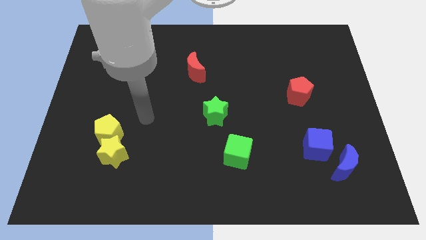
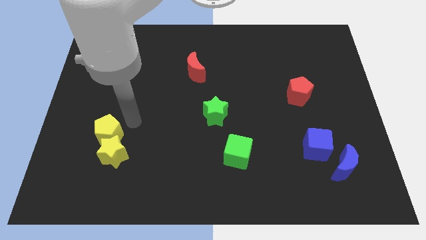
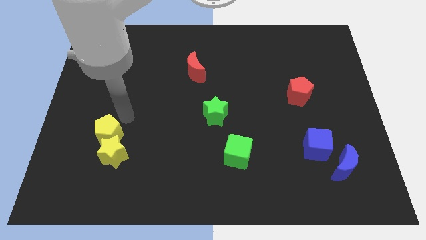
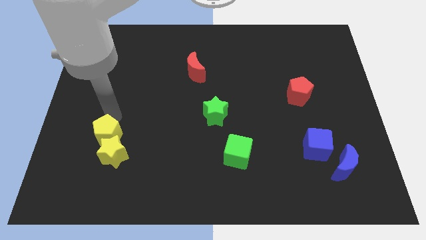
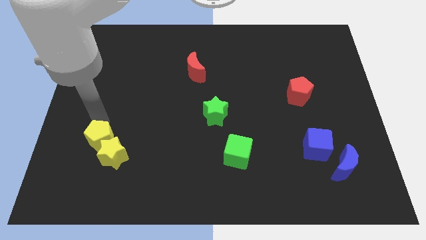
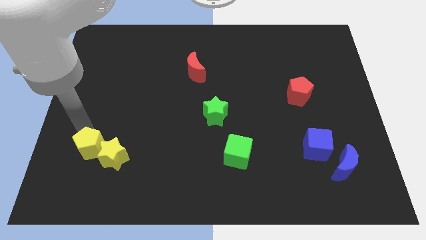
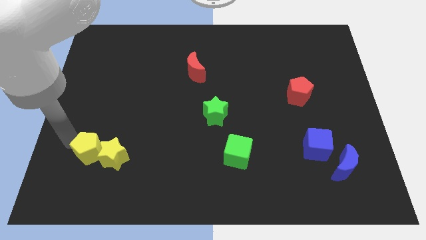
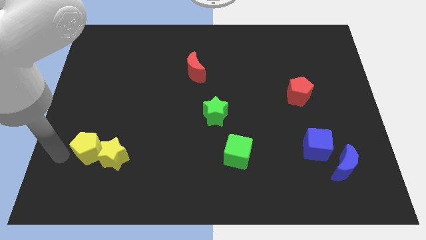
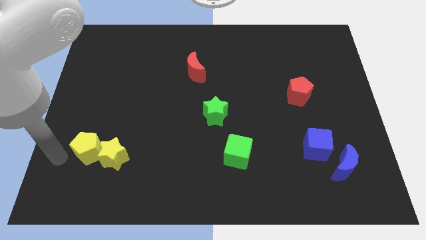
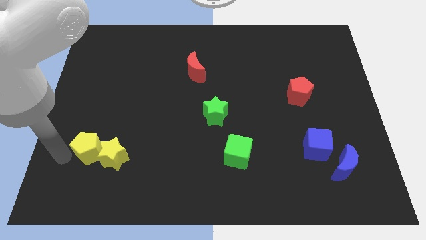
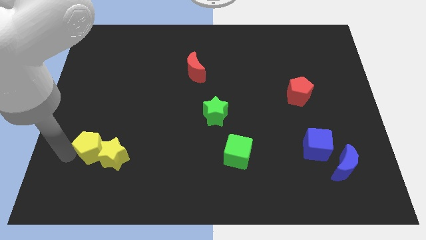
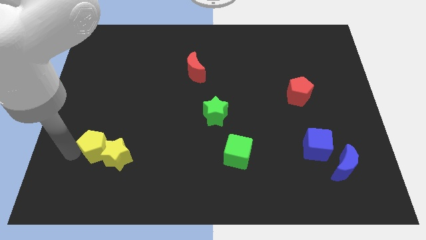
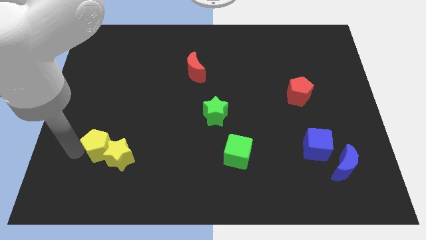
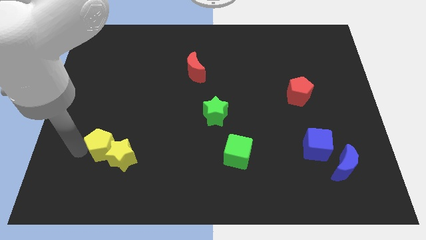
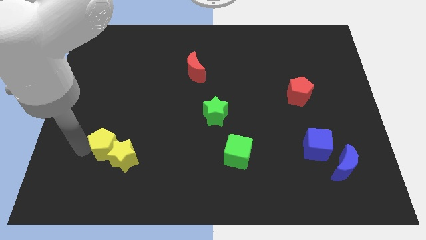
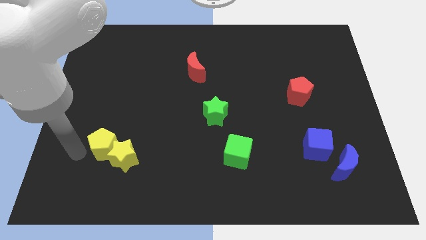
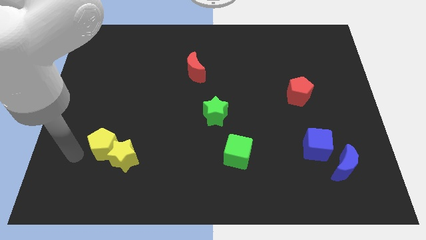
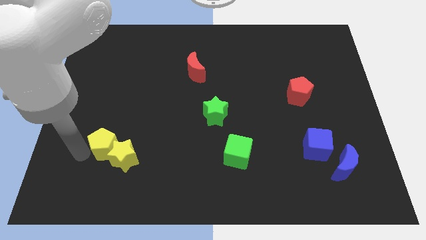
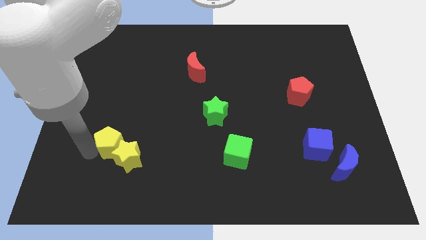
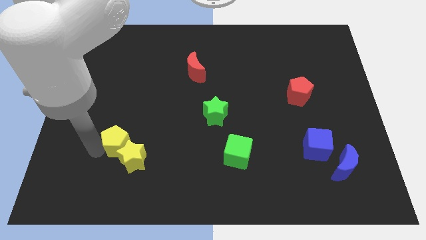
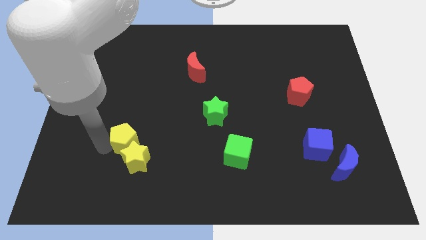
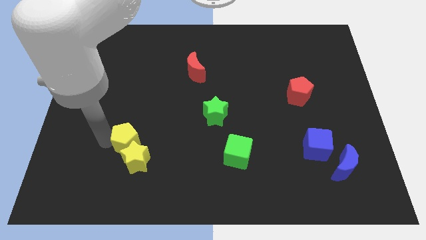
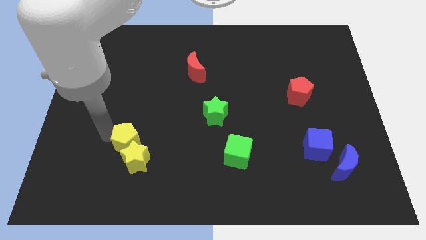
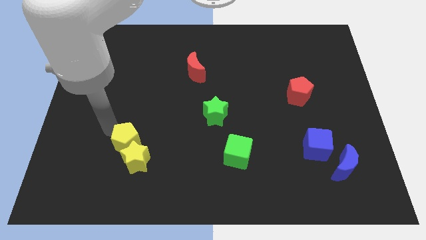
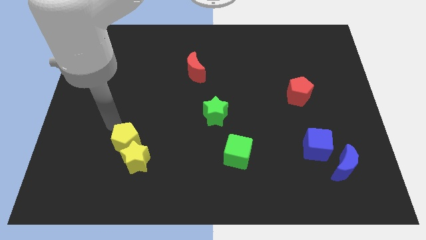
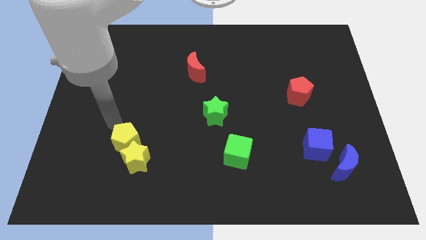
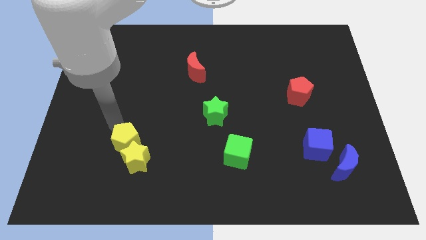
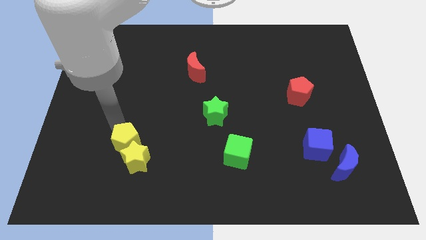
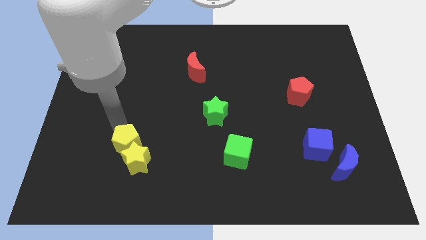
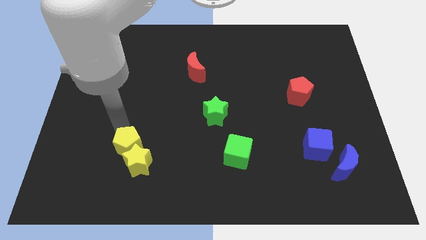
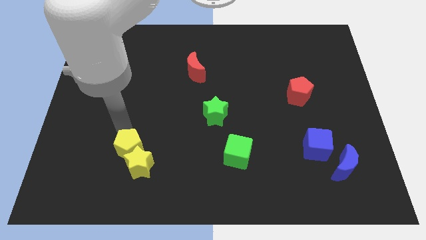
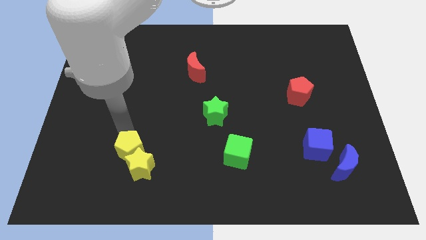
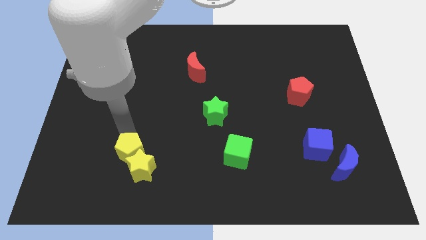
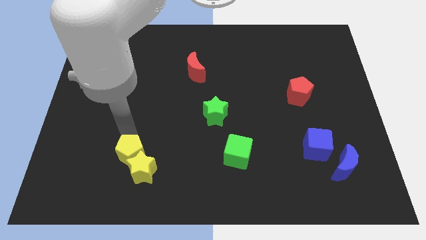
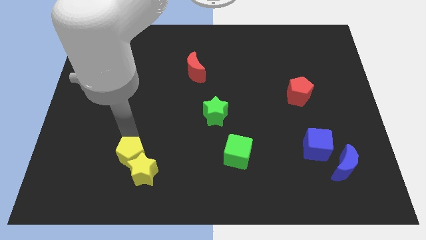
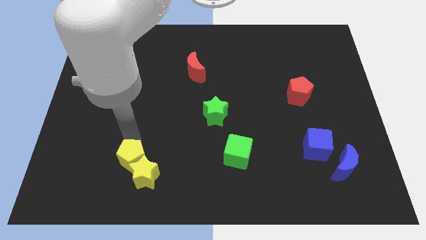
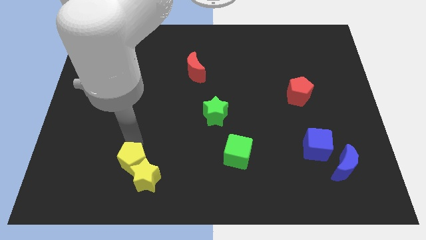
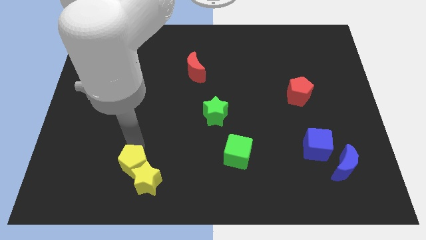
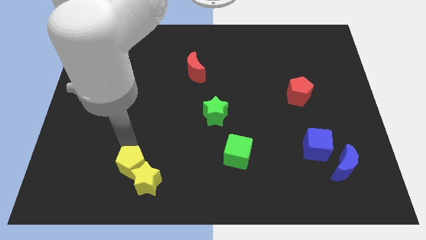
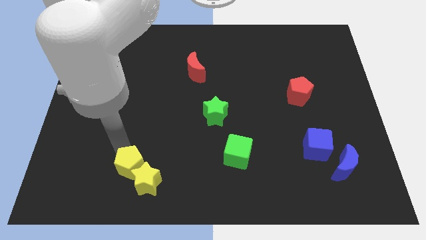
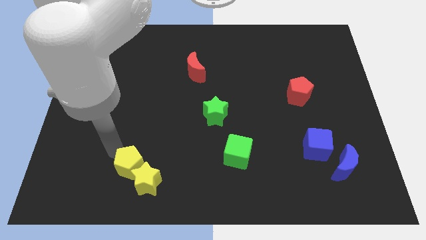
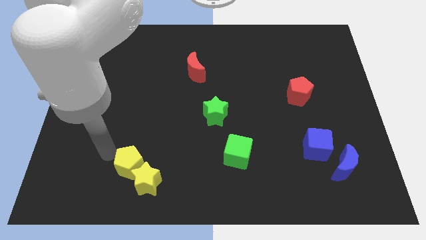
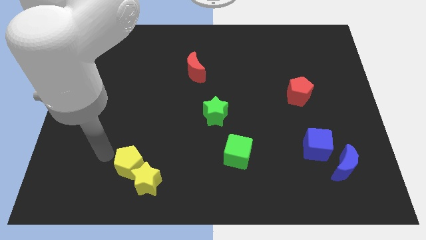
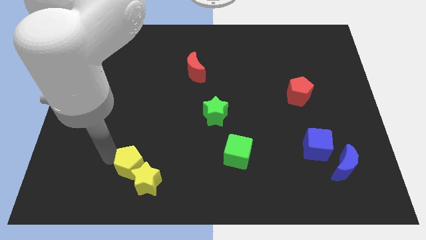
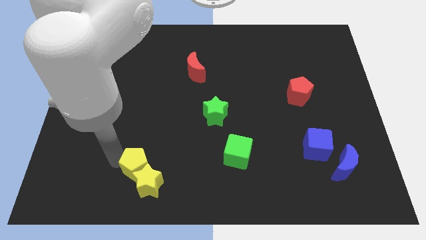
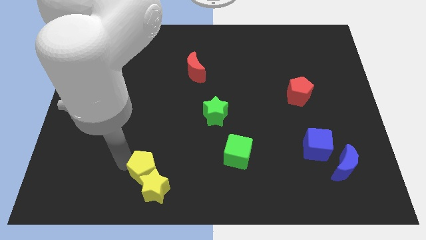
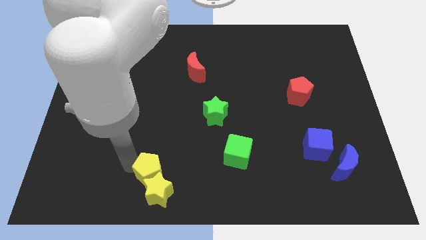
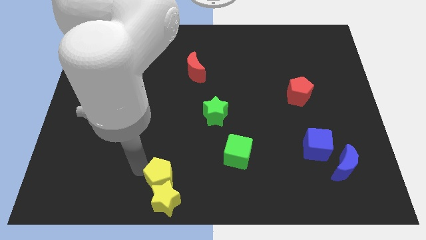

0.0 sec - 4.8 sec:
move the yellow pentagon to the bottom side

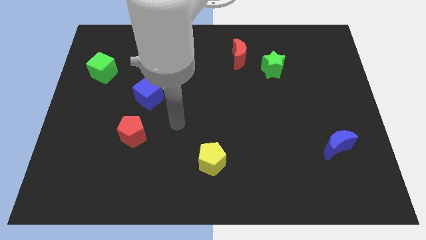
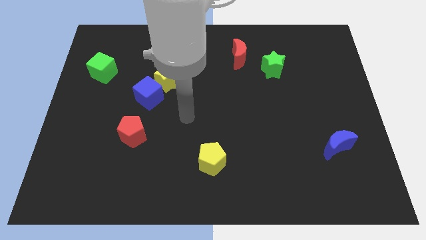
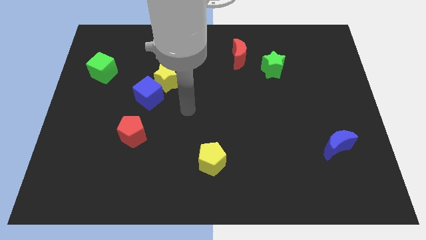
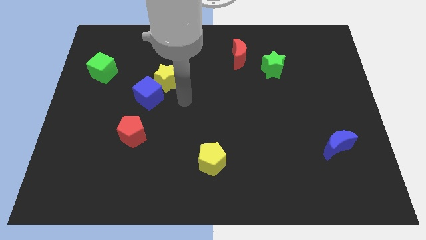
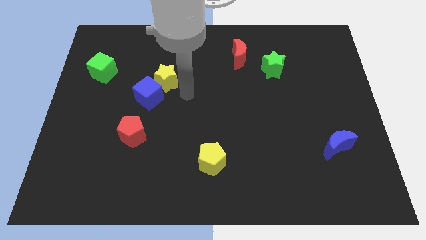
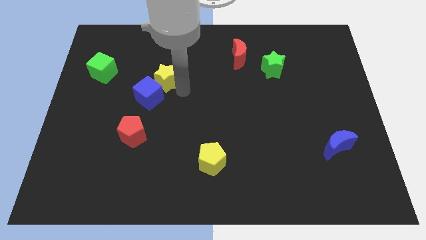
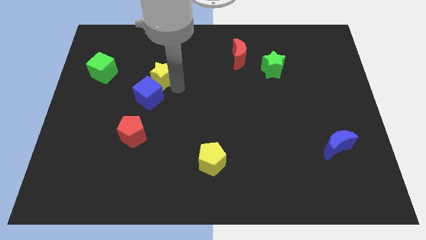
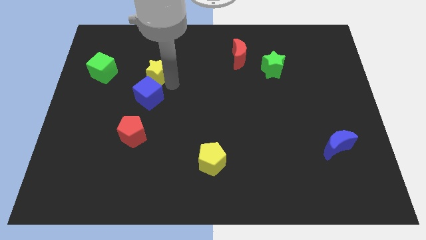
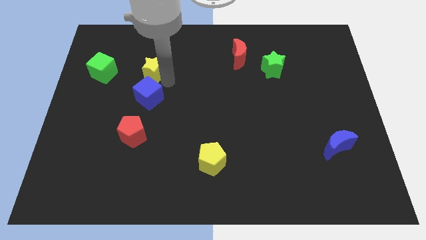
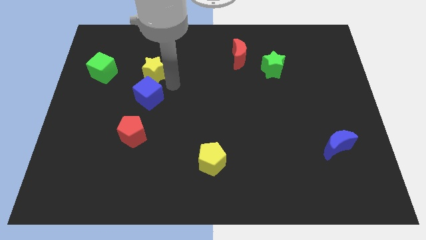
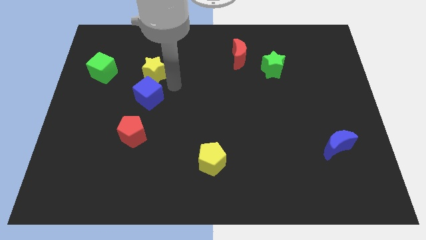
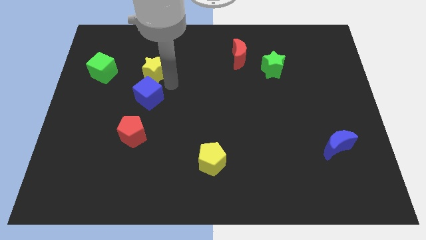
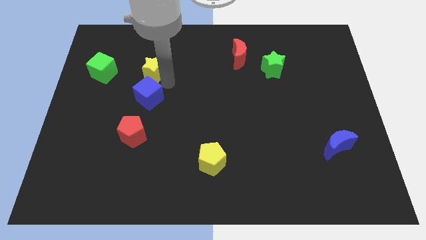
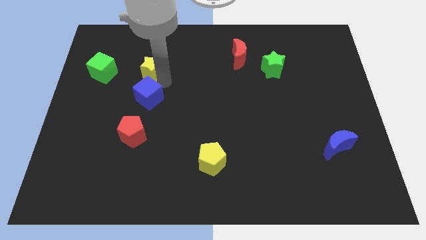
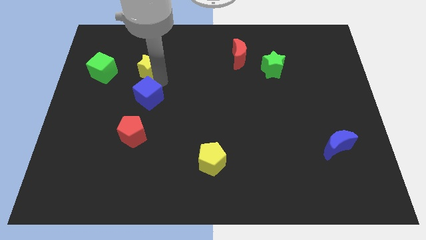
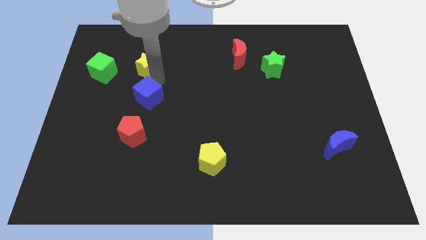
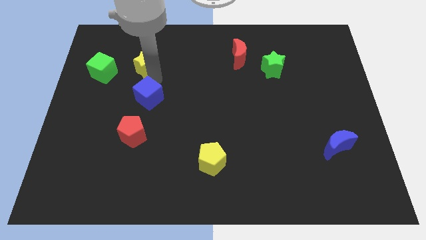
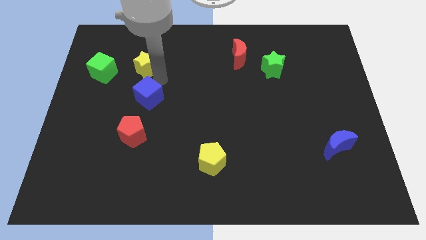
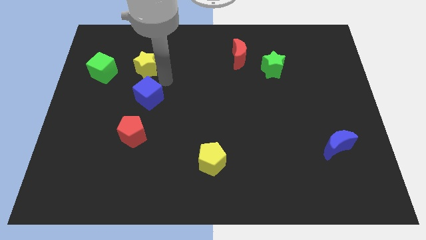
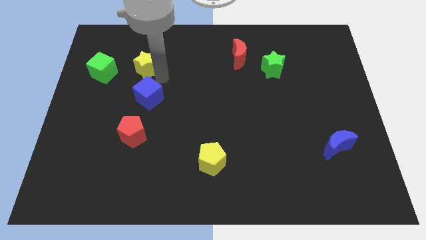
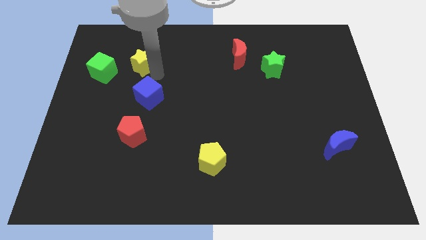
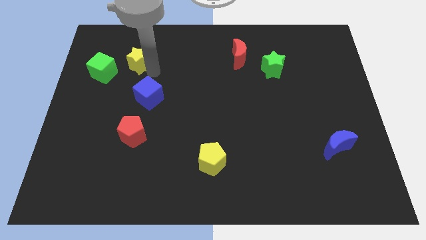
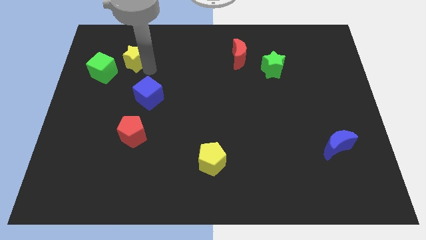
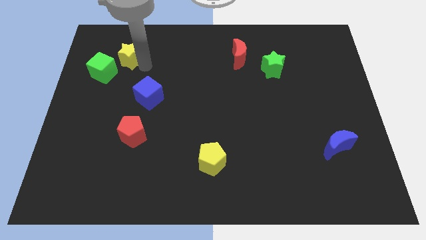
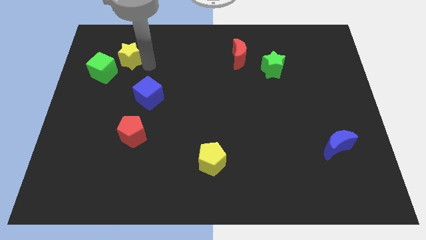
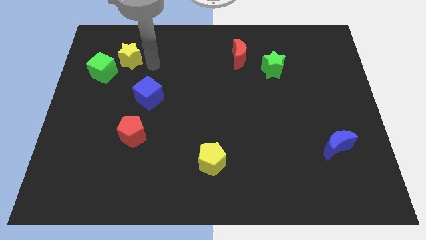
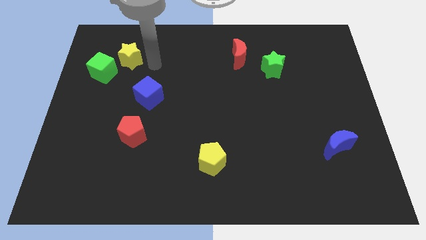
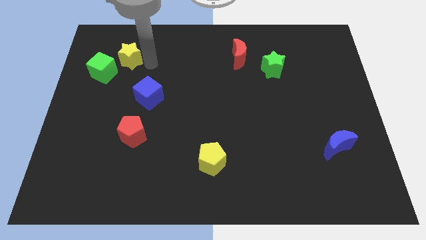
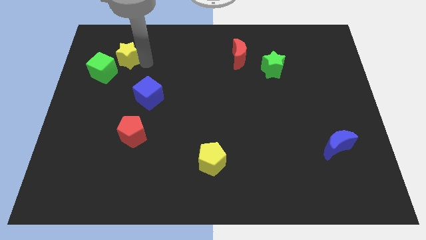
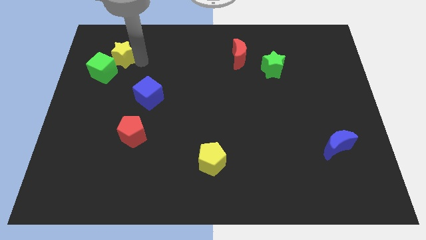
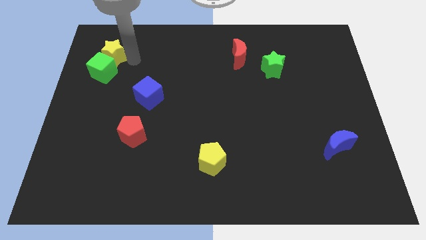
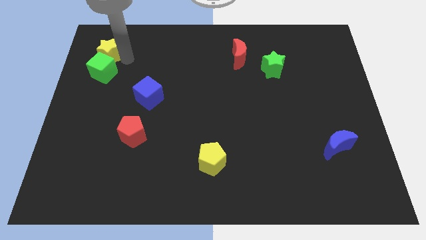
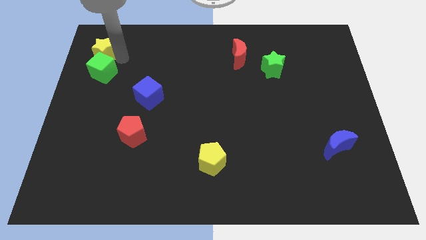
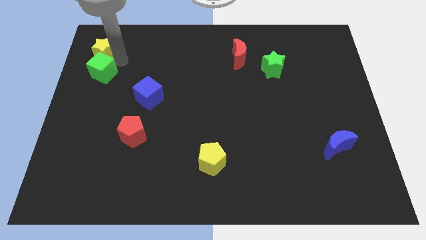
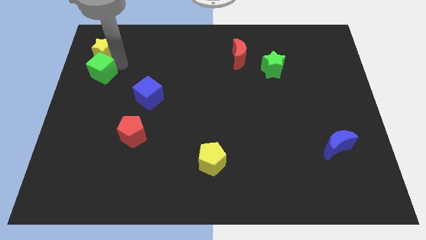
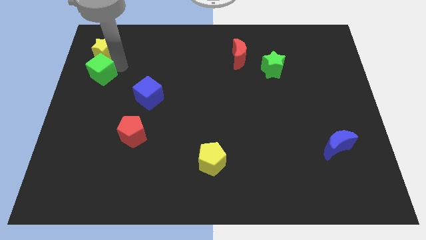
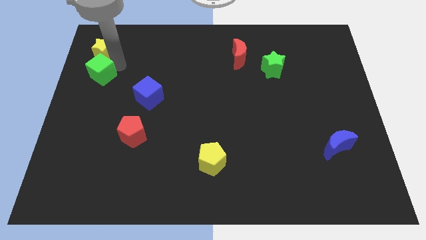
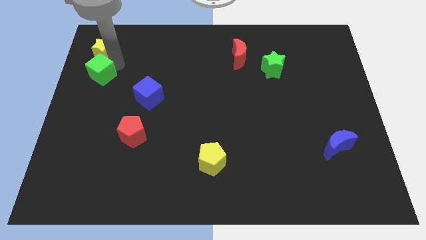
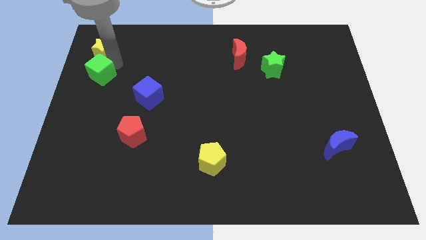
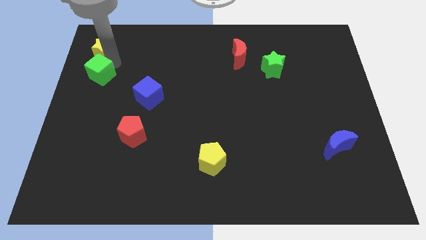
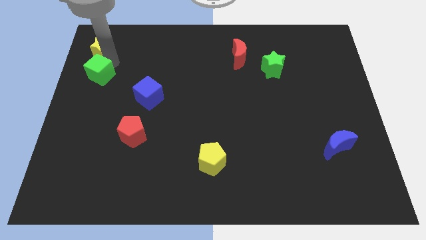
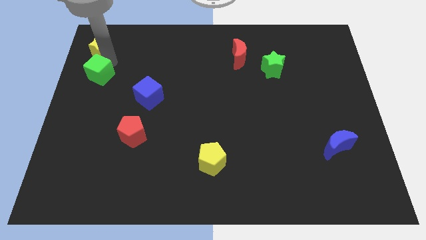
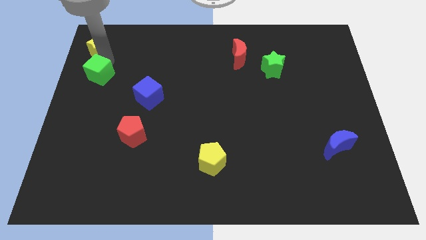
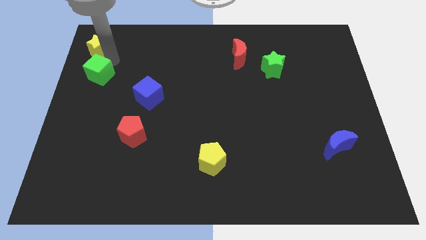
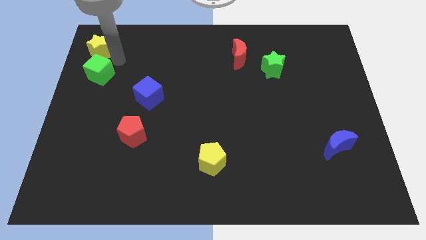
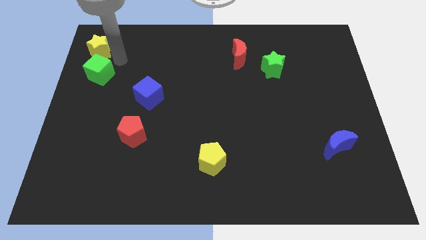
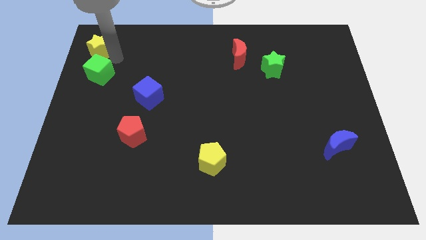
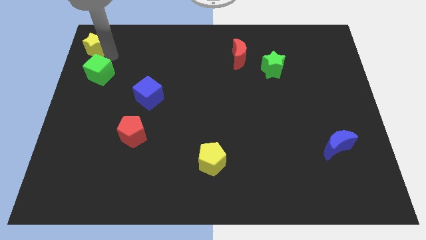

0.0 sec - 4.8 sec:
slide the yellow star to the upper left corner
